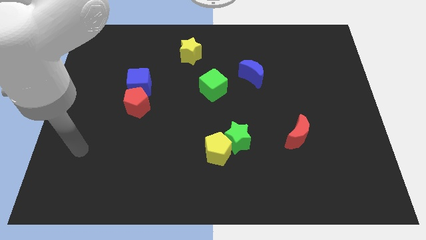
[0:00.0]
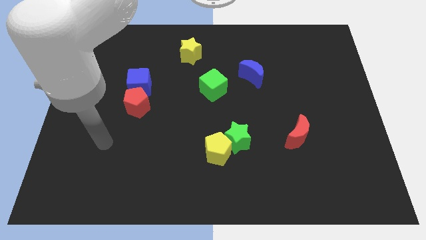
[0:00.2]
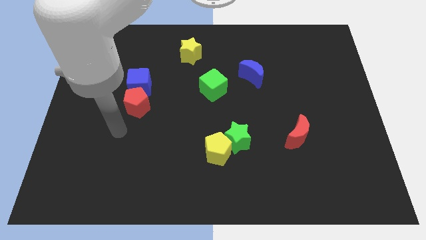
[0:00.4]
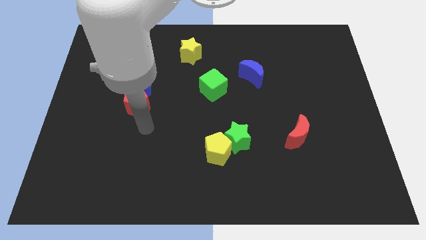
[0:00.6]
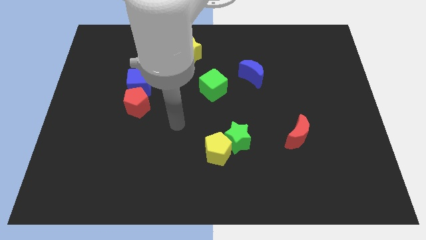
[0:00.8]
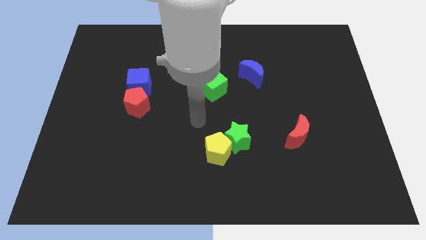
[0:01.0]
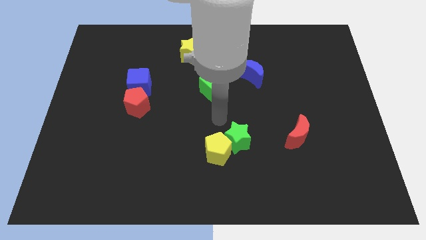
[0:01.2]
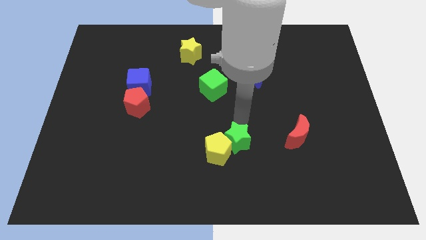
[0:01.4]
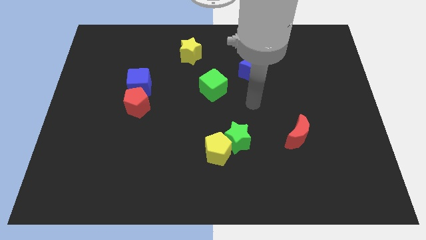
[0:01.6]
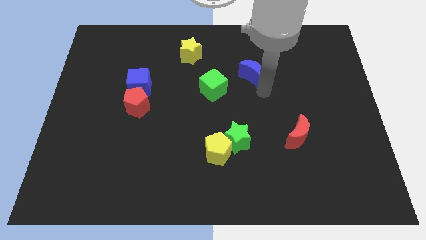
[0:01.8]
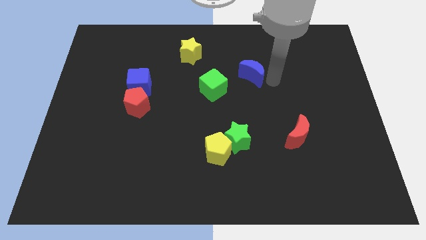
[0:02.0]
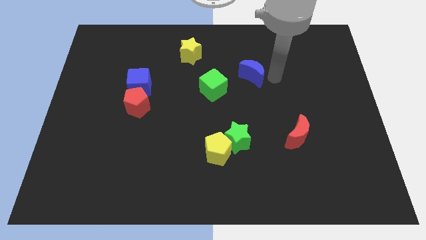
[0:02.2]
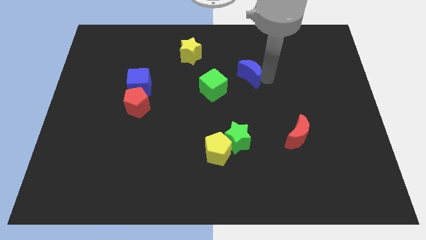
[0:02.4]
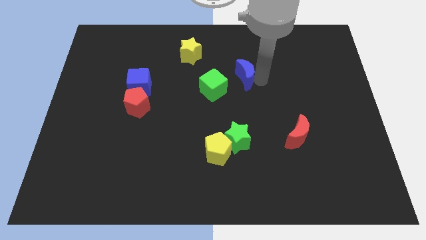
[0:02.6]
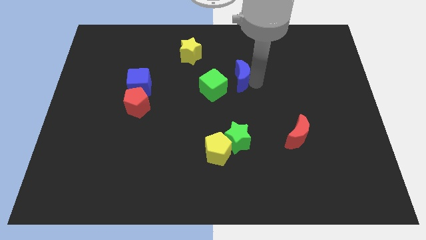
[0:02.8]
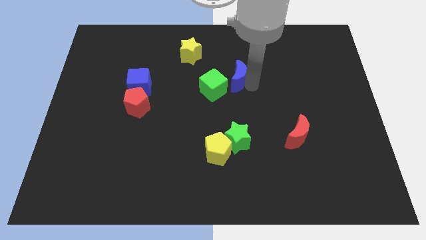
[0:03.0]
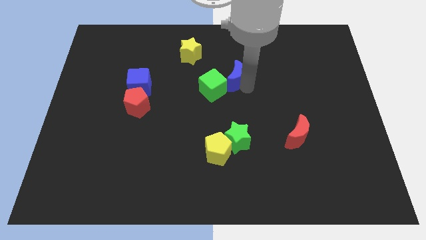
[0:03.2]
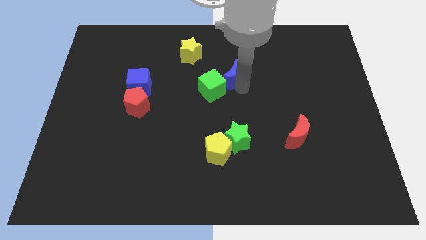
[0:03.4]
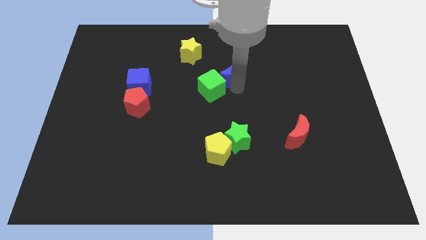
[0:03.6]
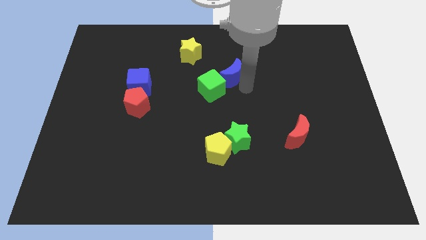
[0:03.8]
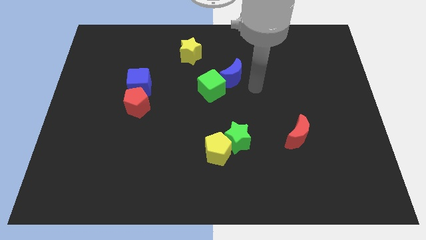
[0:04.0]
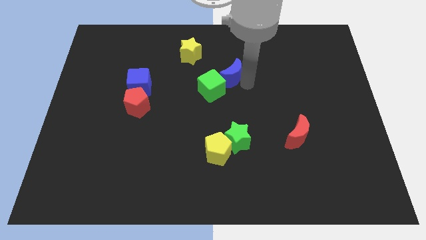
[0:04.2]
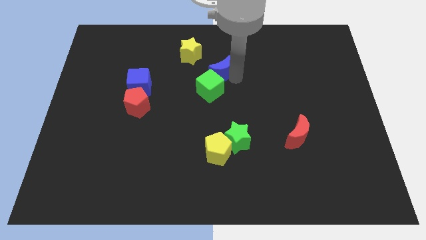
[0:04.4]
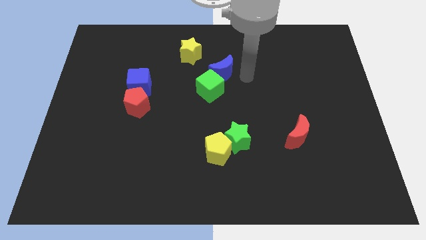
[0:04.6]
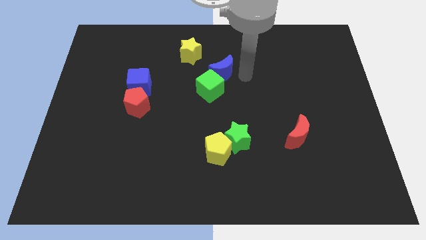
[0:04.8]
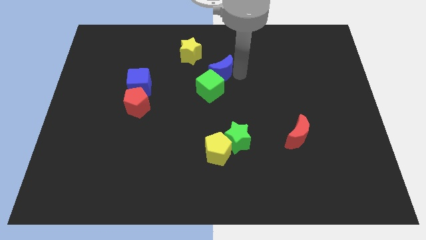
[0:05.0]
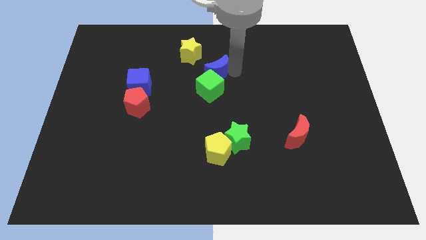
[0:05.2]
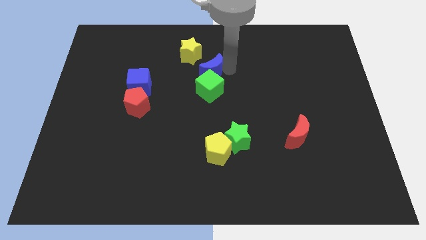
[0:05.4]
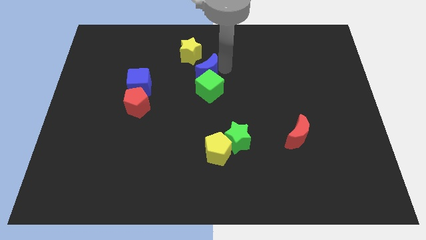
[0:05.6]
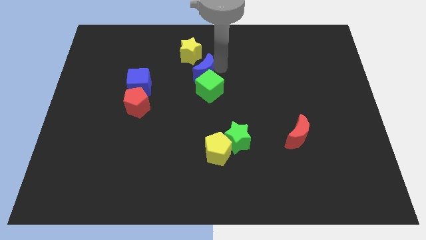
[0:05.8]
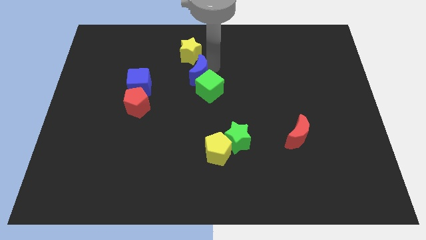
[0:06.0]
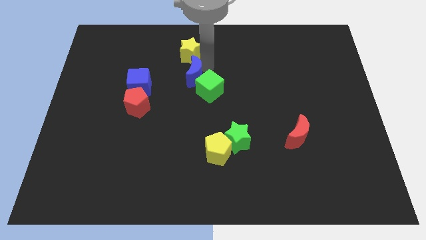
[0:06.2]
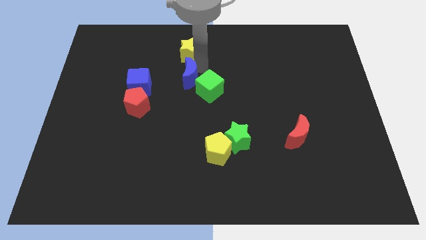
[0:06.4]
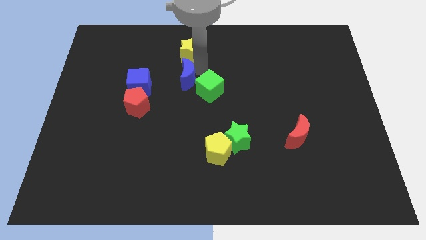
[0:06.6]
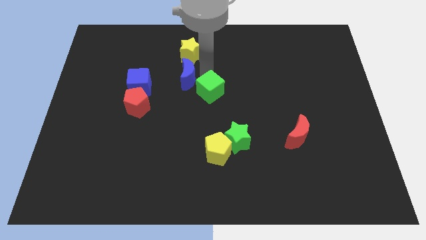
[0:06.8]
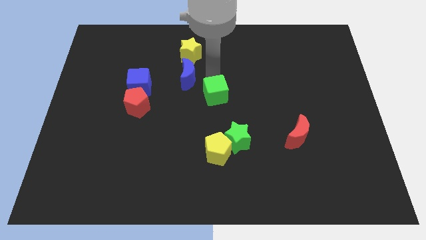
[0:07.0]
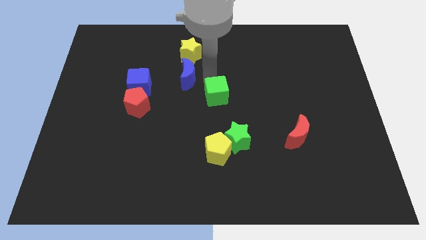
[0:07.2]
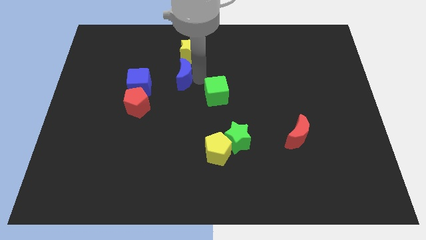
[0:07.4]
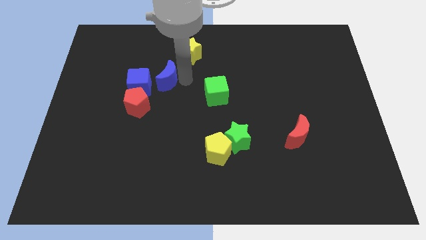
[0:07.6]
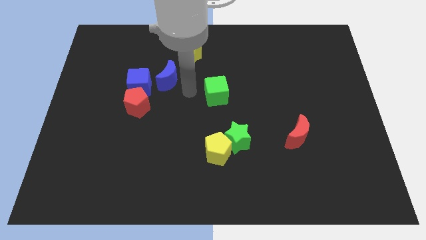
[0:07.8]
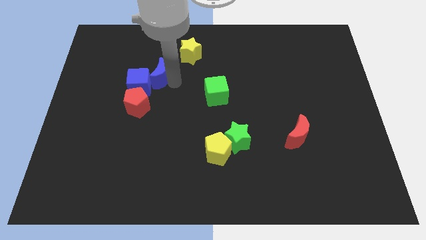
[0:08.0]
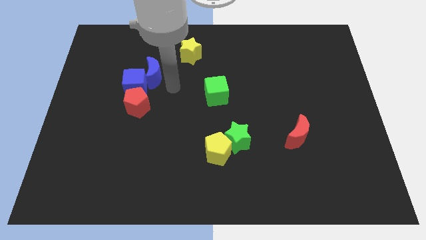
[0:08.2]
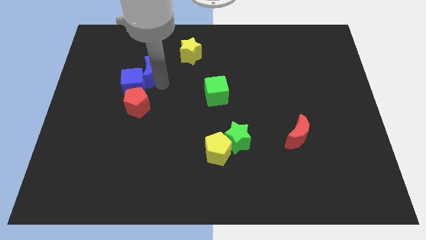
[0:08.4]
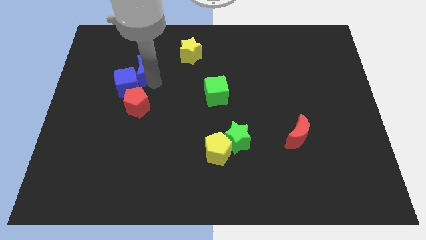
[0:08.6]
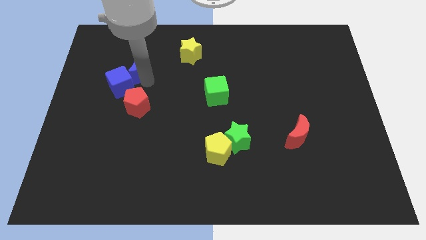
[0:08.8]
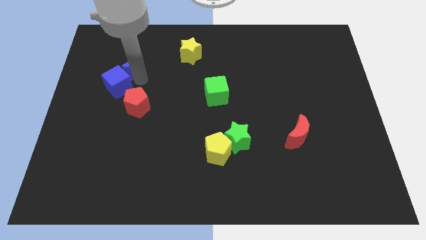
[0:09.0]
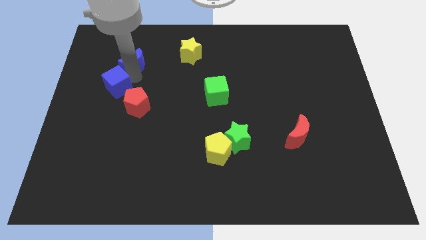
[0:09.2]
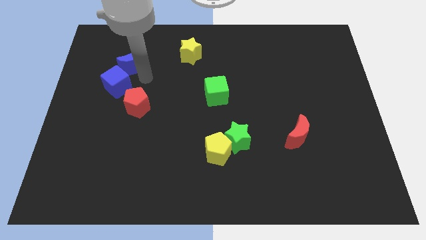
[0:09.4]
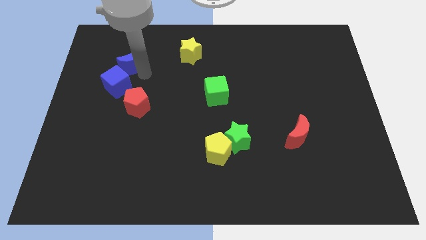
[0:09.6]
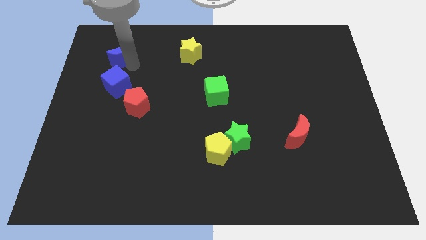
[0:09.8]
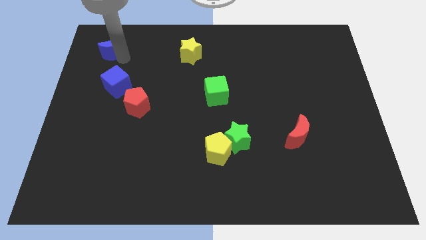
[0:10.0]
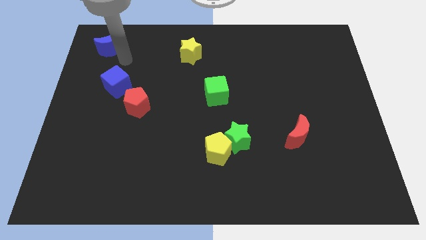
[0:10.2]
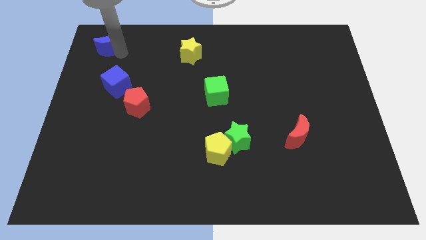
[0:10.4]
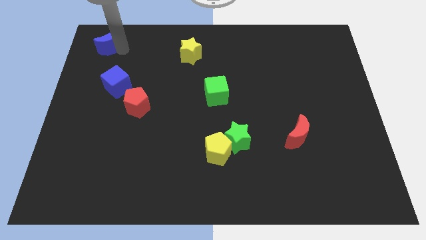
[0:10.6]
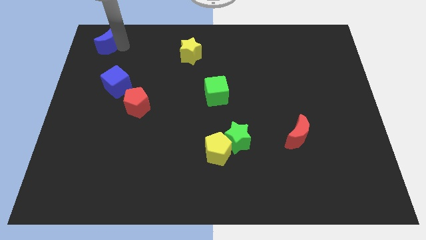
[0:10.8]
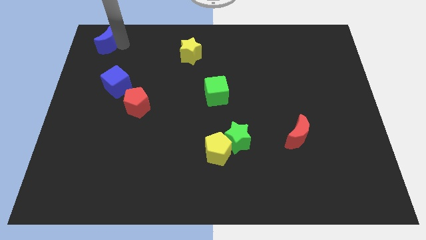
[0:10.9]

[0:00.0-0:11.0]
put the blue moon to the top left

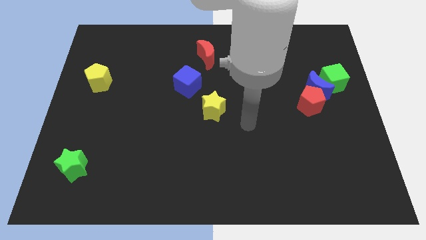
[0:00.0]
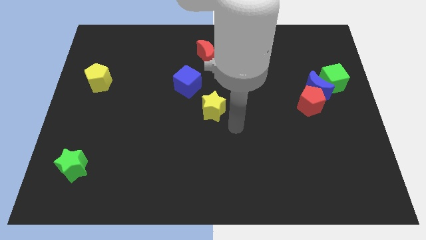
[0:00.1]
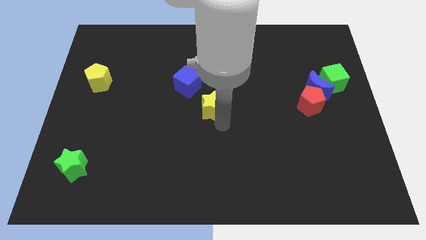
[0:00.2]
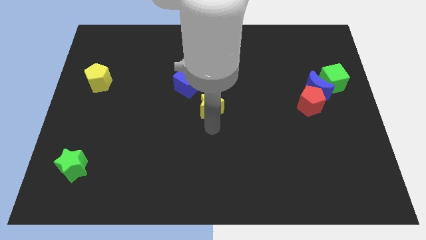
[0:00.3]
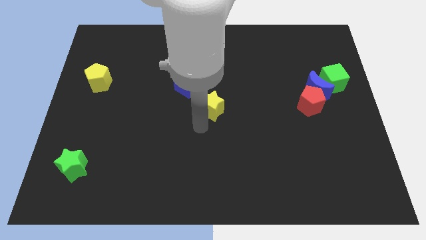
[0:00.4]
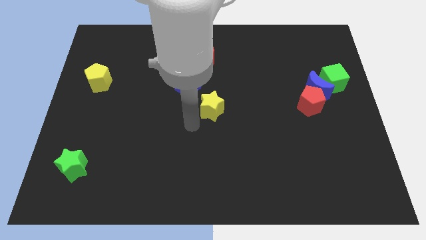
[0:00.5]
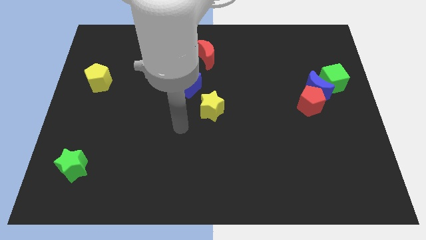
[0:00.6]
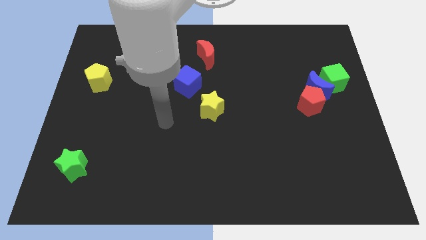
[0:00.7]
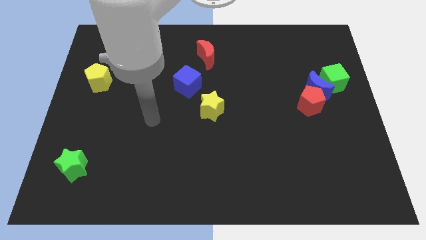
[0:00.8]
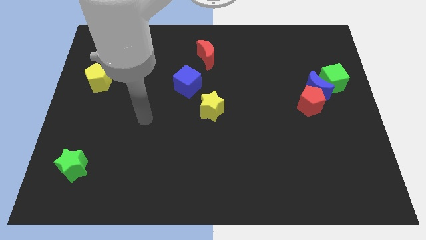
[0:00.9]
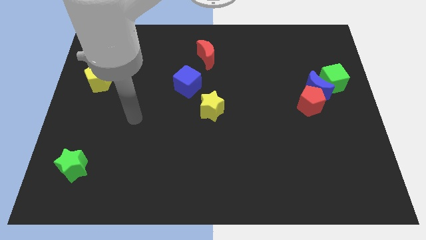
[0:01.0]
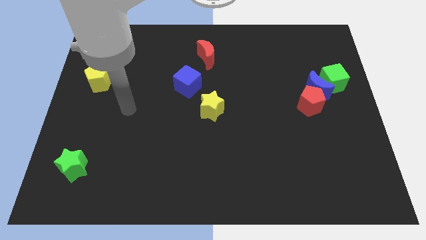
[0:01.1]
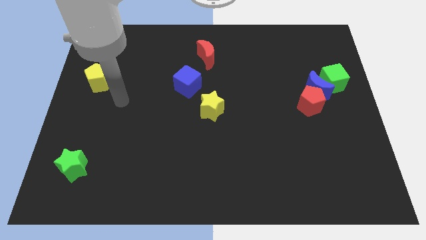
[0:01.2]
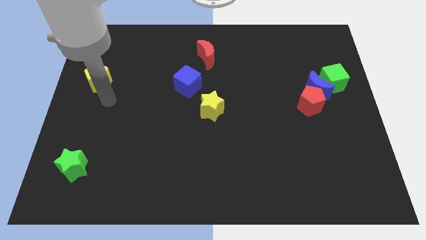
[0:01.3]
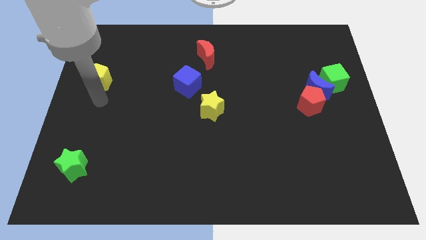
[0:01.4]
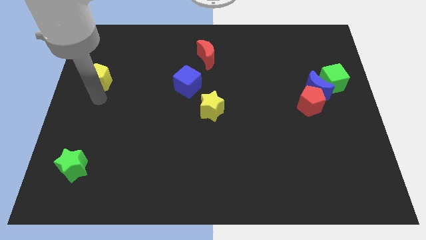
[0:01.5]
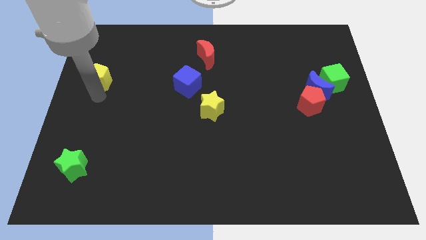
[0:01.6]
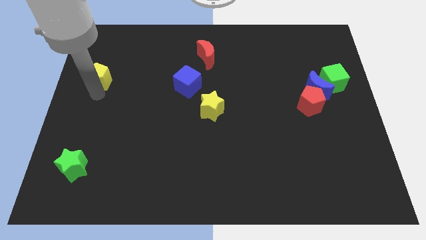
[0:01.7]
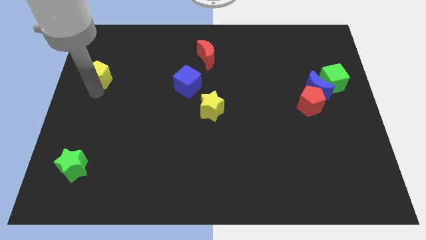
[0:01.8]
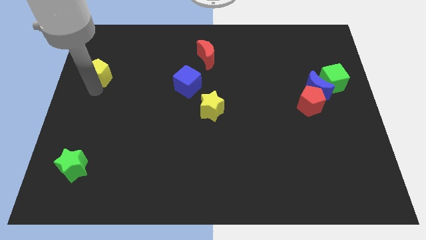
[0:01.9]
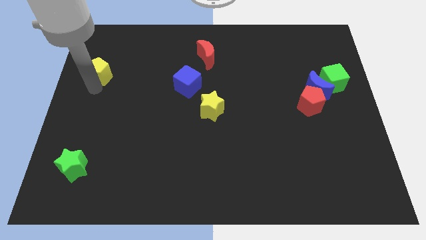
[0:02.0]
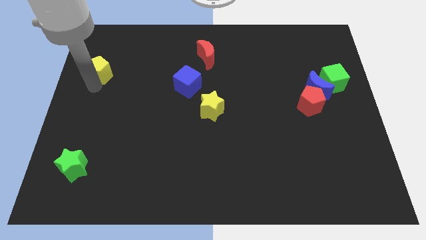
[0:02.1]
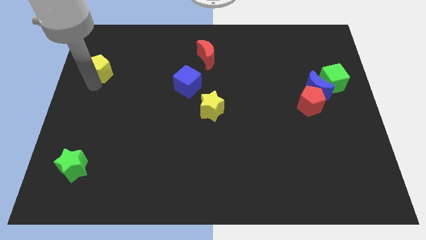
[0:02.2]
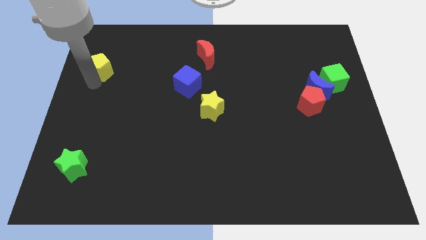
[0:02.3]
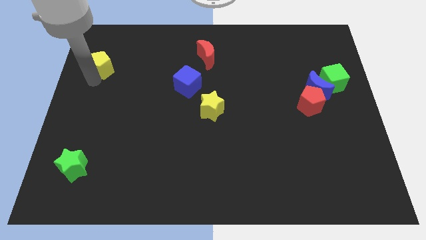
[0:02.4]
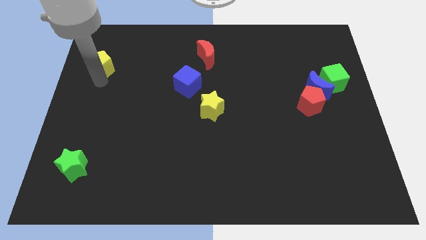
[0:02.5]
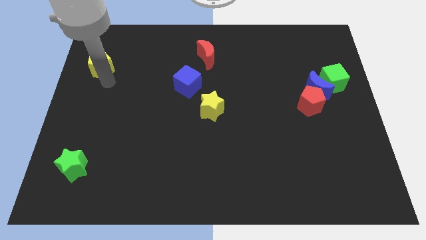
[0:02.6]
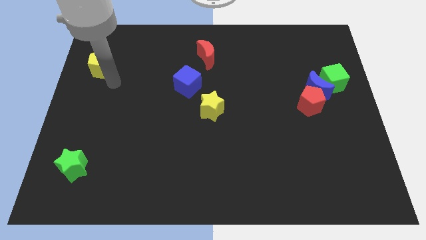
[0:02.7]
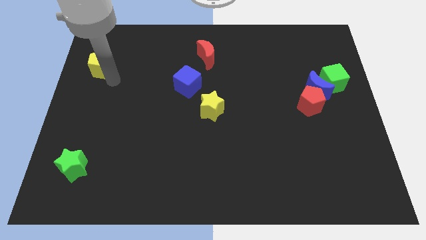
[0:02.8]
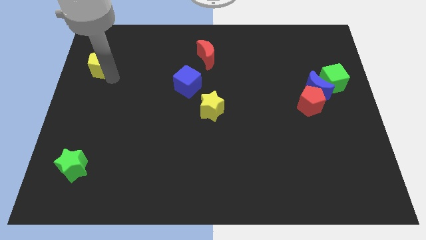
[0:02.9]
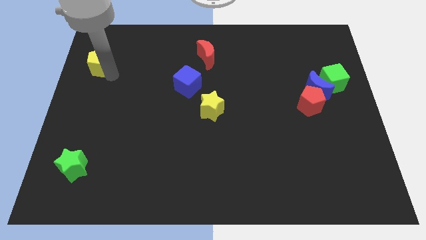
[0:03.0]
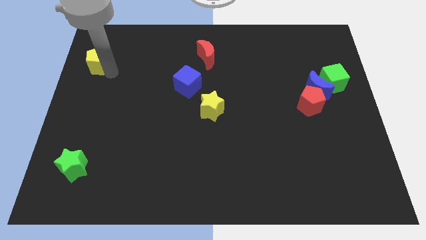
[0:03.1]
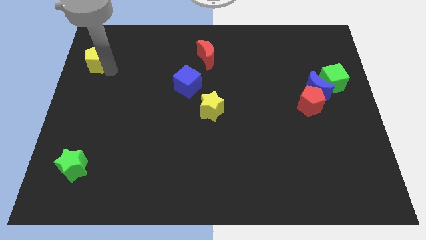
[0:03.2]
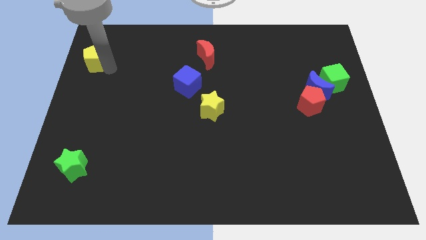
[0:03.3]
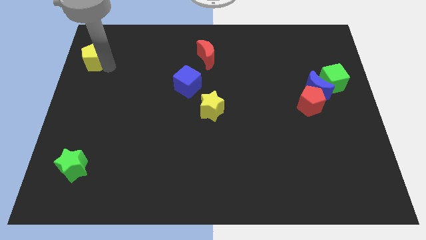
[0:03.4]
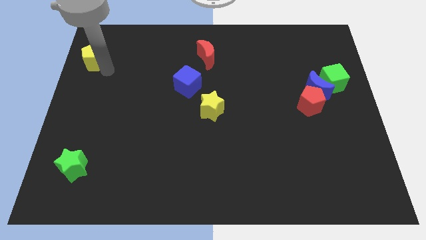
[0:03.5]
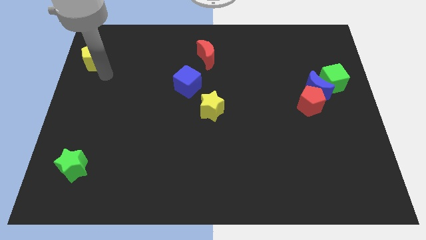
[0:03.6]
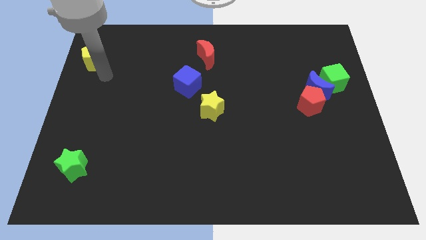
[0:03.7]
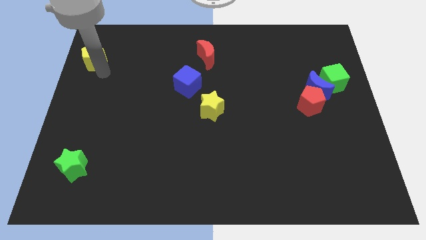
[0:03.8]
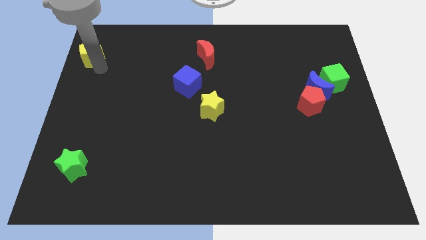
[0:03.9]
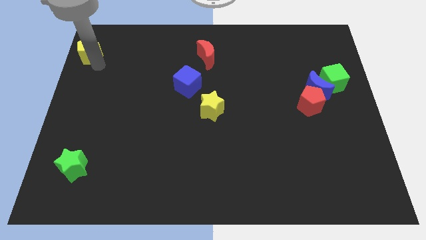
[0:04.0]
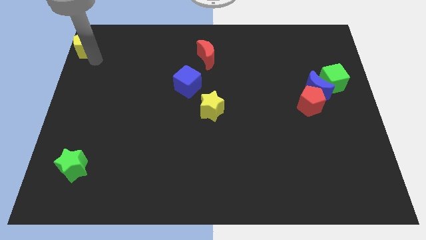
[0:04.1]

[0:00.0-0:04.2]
push the yellow pentagon to the upper left corner
